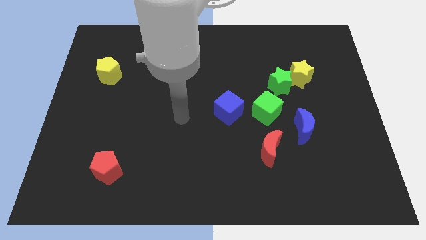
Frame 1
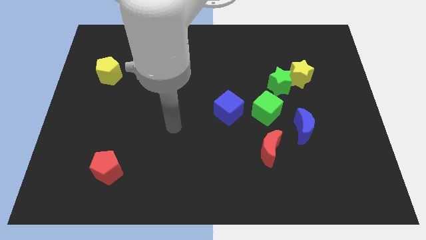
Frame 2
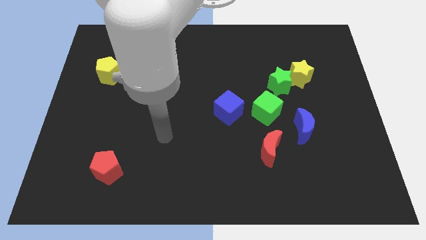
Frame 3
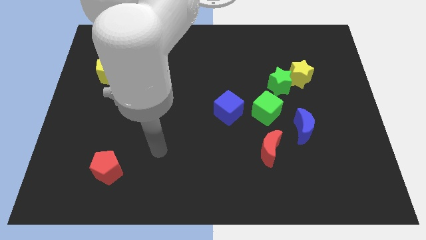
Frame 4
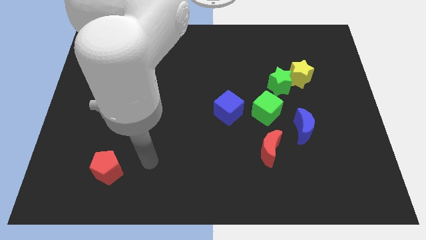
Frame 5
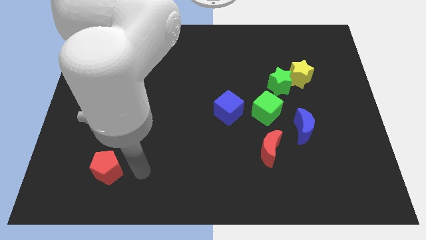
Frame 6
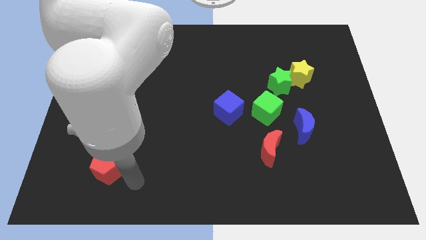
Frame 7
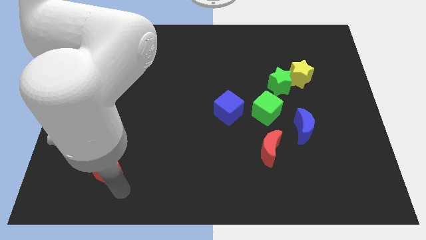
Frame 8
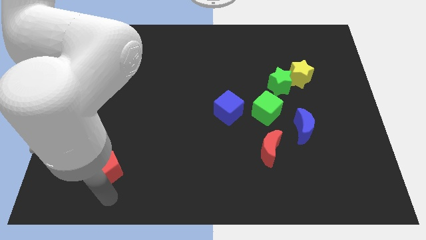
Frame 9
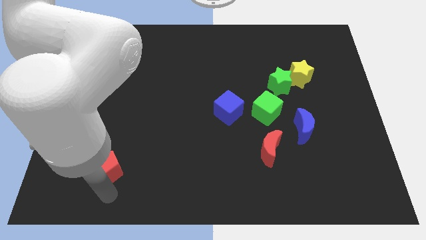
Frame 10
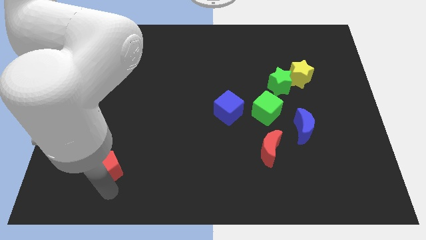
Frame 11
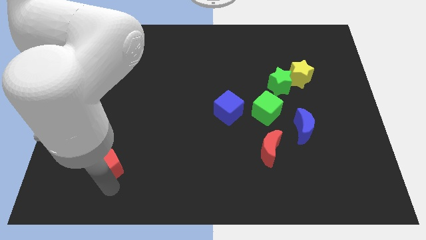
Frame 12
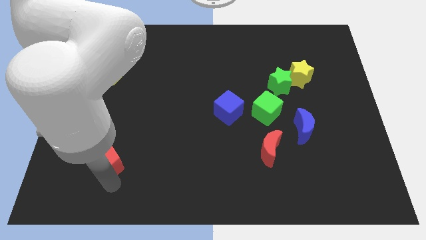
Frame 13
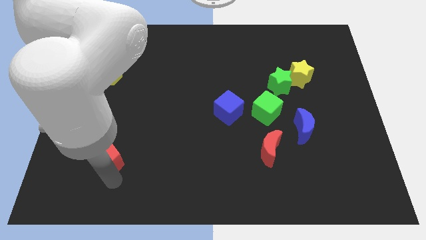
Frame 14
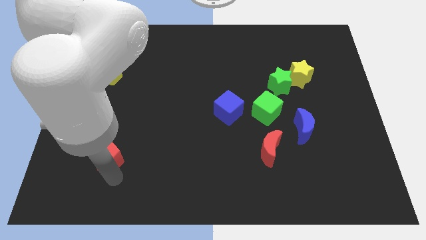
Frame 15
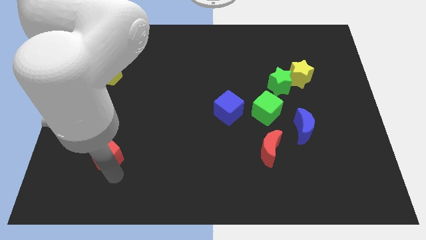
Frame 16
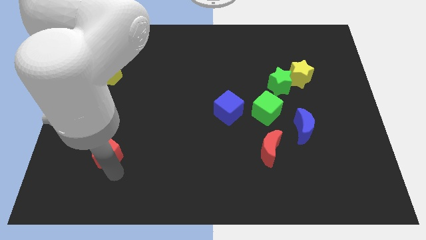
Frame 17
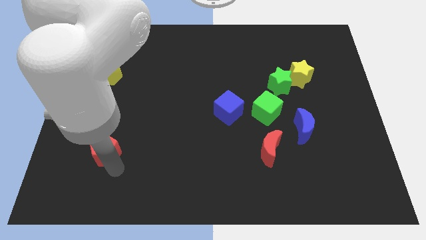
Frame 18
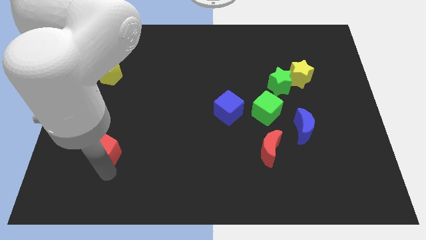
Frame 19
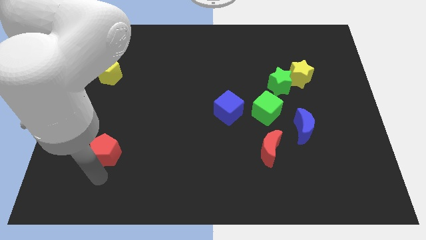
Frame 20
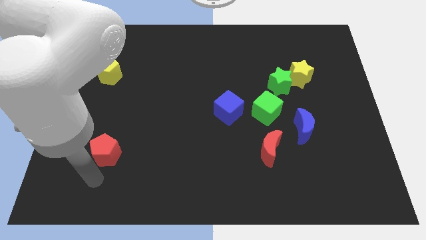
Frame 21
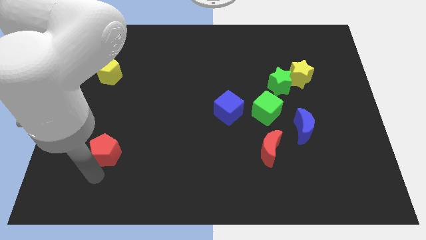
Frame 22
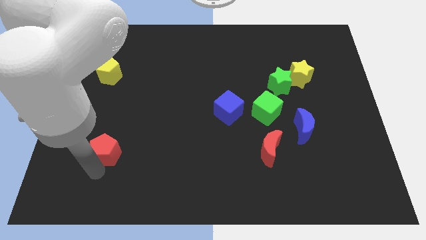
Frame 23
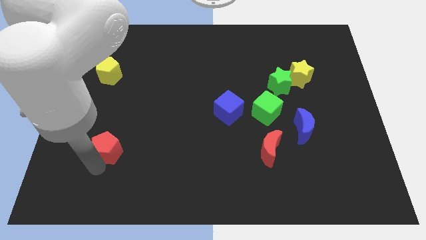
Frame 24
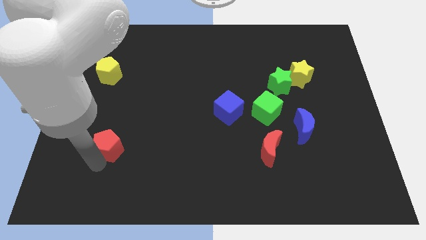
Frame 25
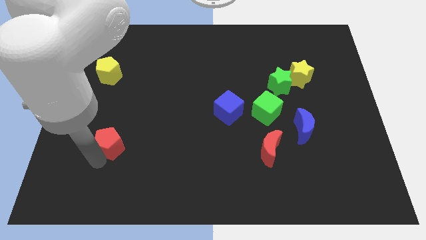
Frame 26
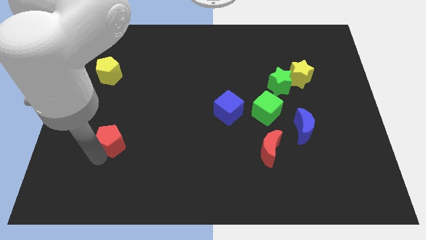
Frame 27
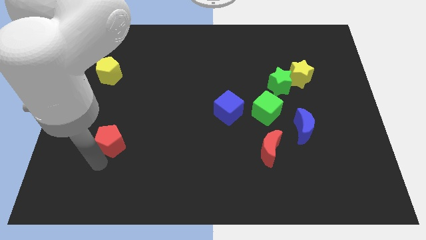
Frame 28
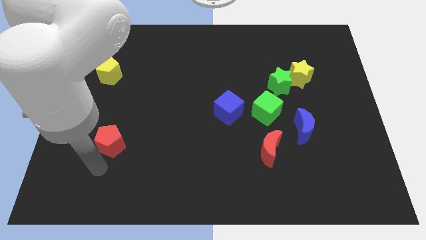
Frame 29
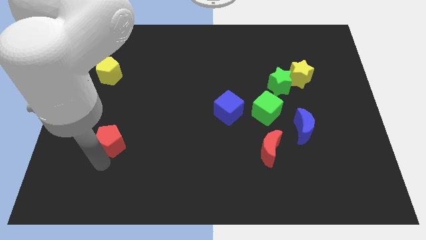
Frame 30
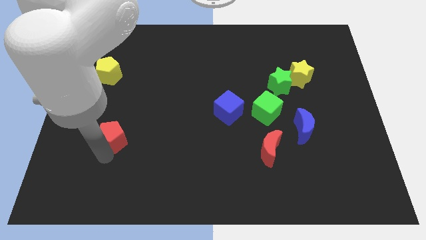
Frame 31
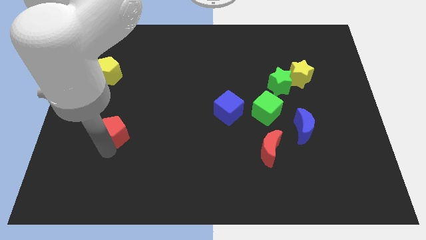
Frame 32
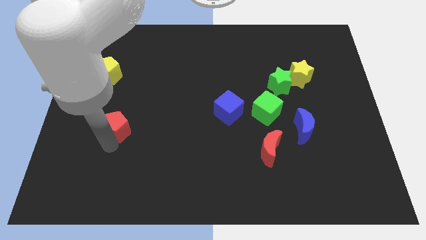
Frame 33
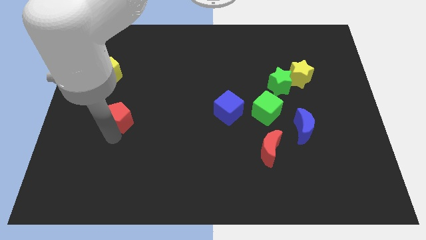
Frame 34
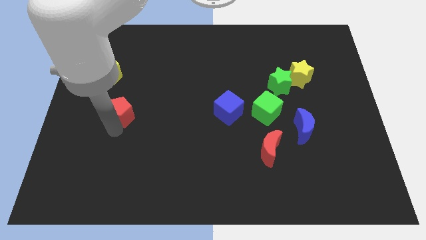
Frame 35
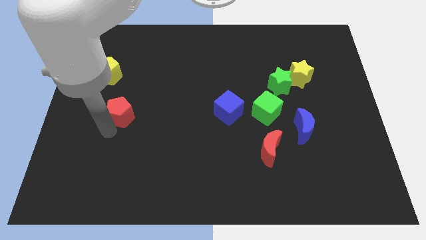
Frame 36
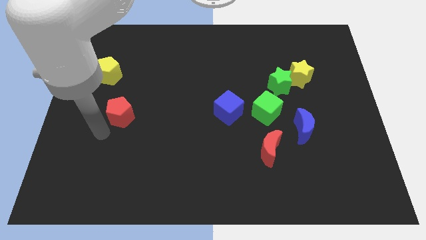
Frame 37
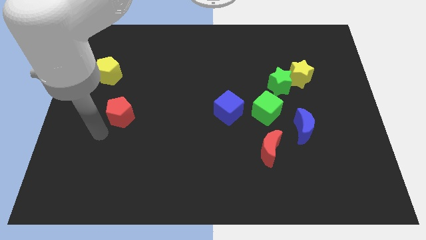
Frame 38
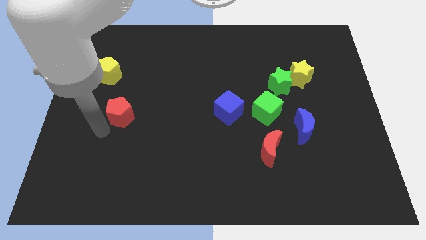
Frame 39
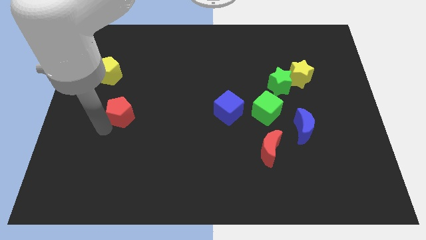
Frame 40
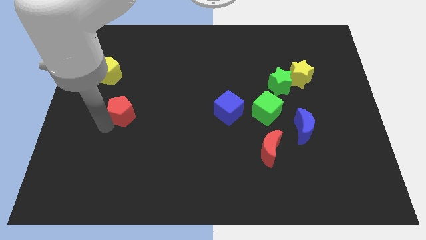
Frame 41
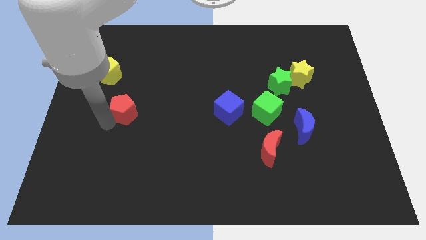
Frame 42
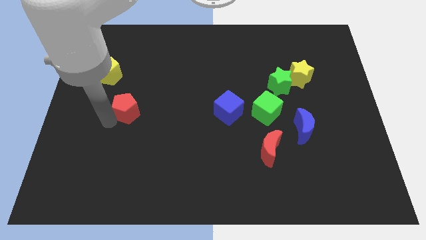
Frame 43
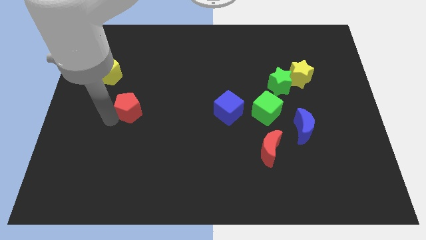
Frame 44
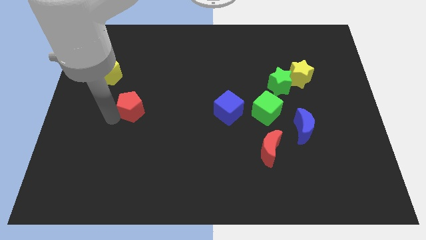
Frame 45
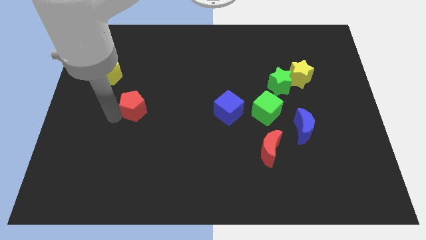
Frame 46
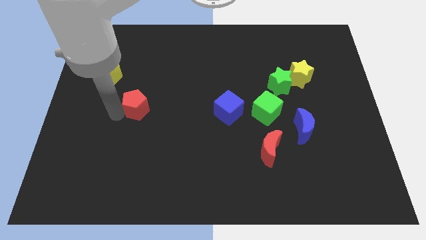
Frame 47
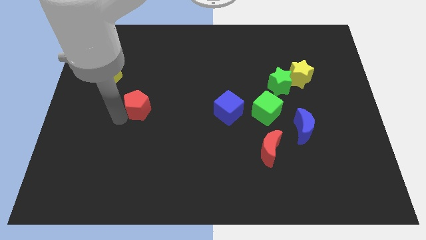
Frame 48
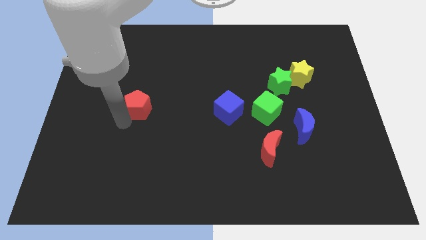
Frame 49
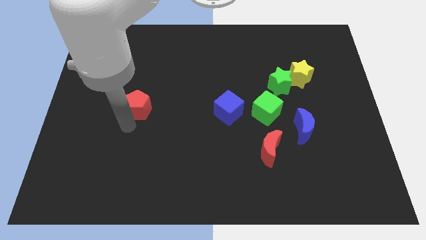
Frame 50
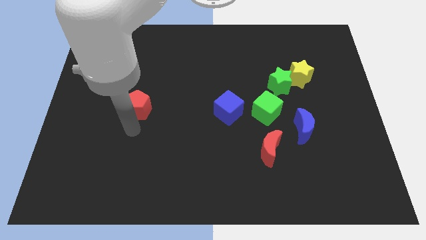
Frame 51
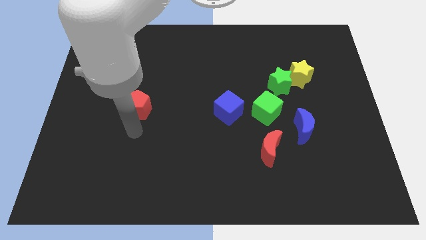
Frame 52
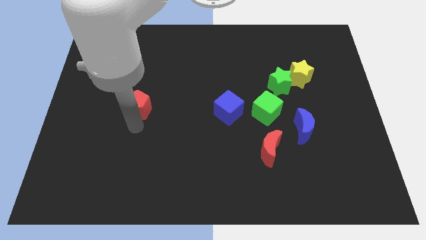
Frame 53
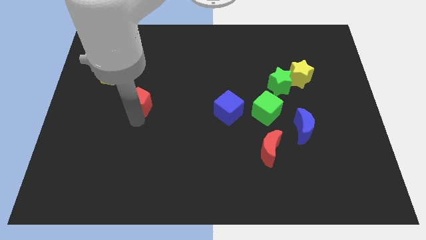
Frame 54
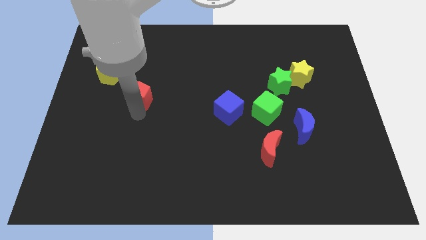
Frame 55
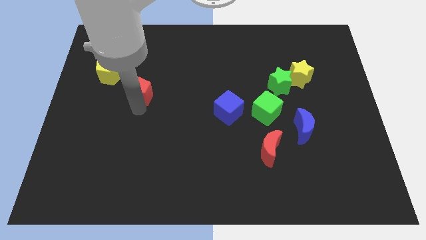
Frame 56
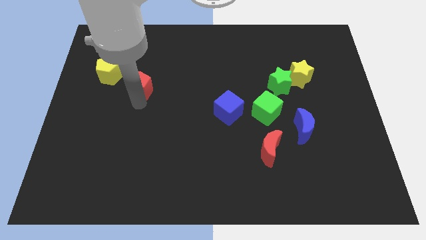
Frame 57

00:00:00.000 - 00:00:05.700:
put the red pentagon right of the yellow pentagon

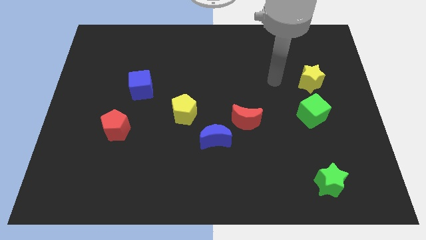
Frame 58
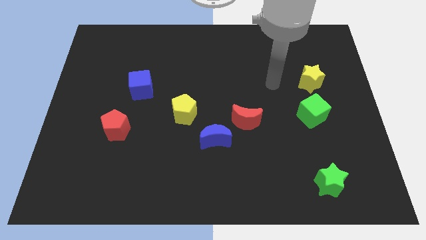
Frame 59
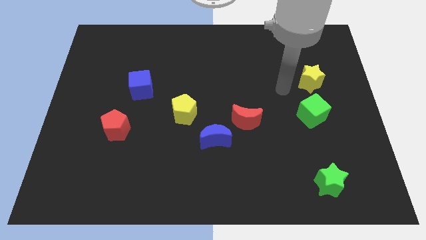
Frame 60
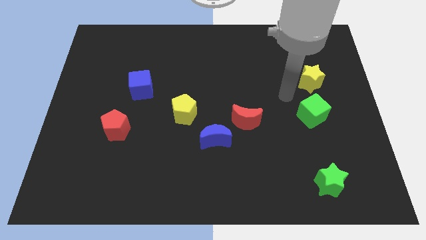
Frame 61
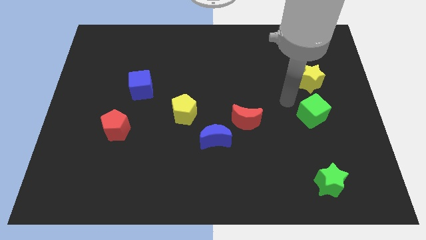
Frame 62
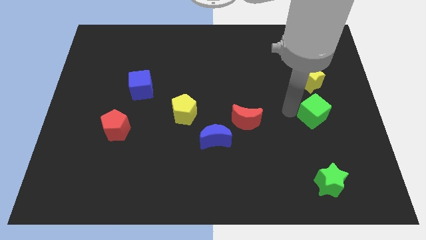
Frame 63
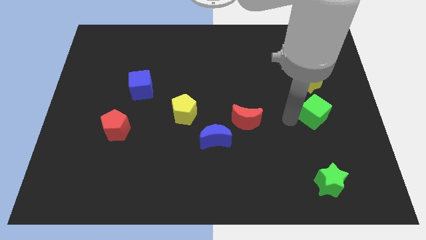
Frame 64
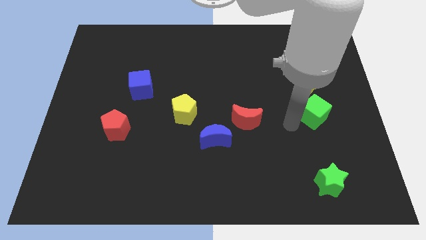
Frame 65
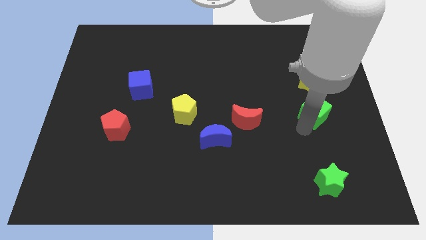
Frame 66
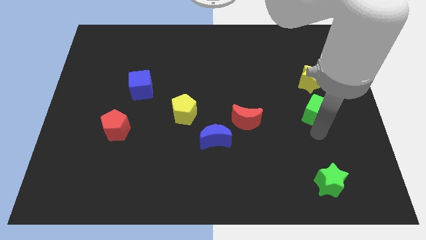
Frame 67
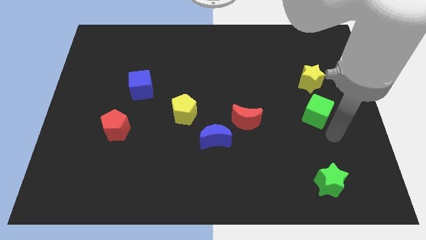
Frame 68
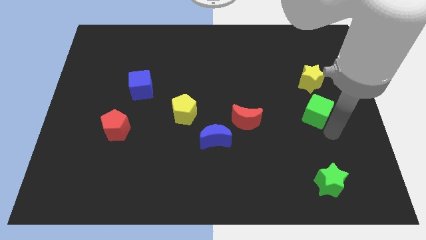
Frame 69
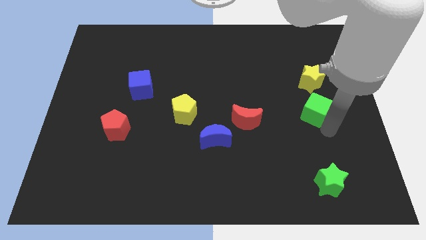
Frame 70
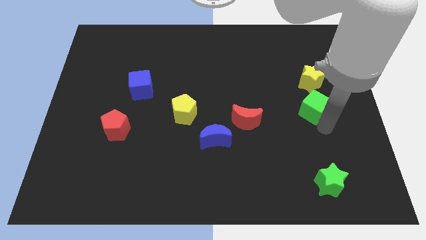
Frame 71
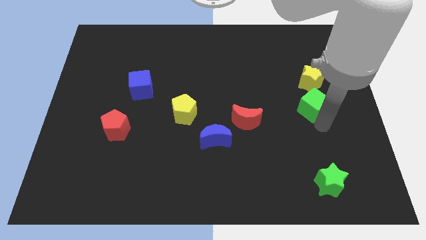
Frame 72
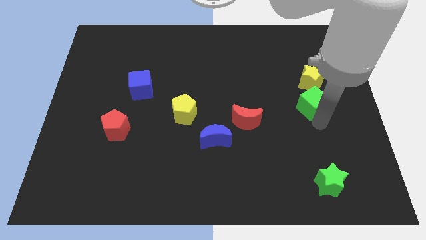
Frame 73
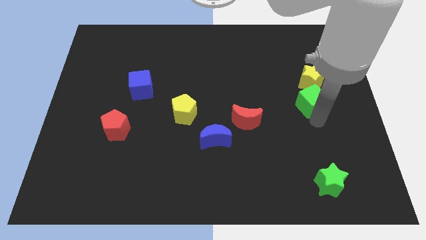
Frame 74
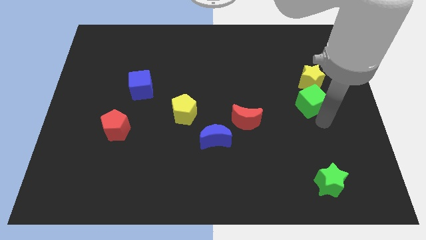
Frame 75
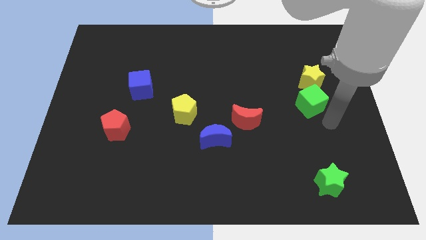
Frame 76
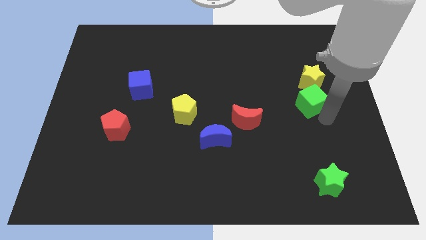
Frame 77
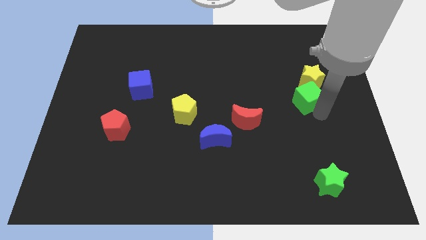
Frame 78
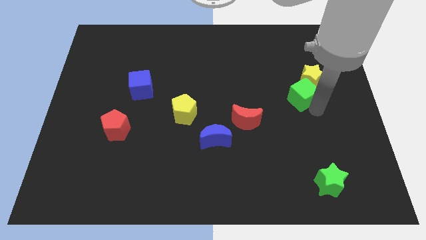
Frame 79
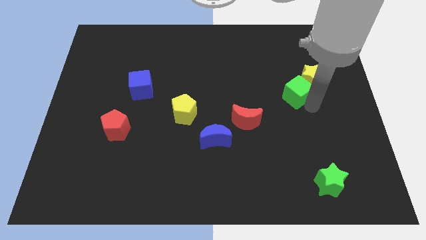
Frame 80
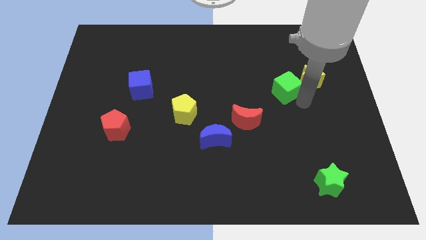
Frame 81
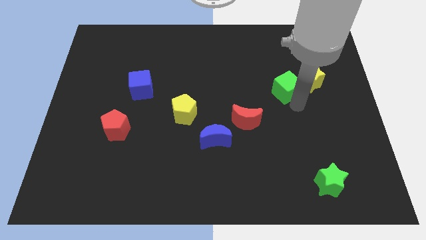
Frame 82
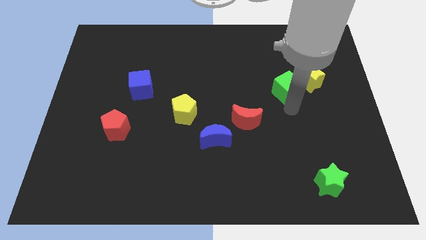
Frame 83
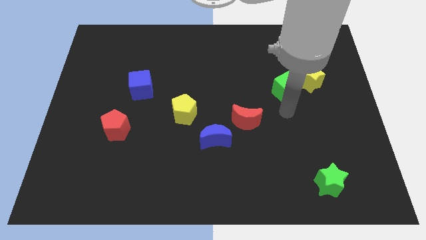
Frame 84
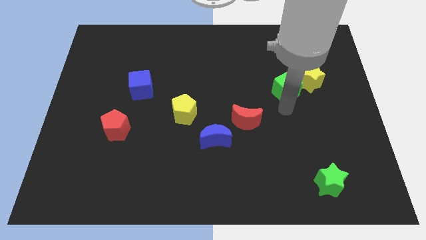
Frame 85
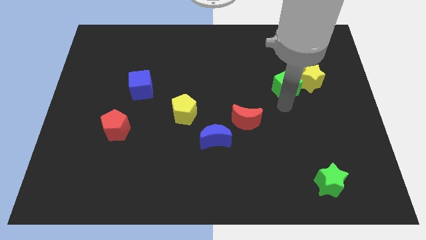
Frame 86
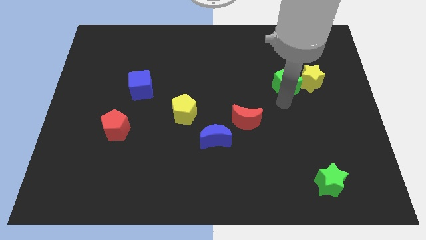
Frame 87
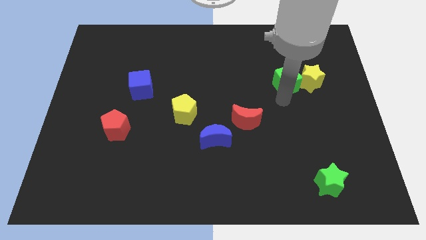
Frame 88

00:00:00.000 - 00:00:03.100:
move the green cube to the top left of the yellow star
